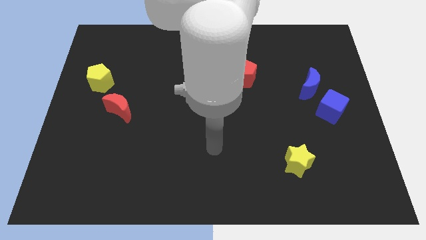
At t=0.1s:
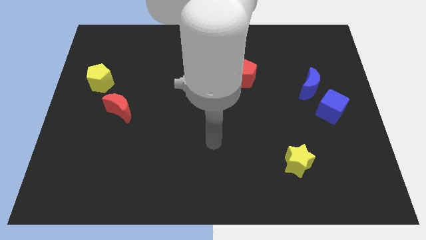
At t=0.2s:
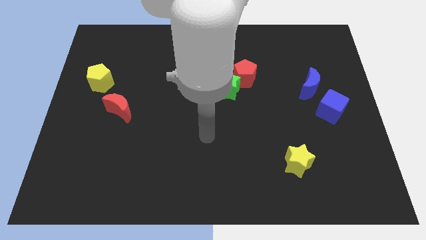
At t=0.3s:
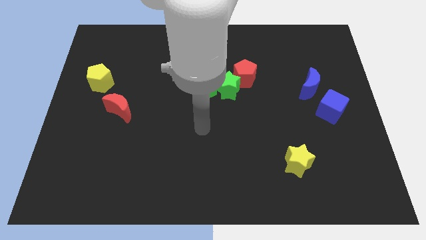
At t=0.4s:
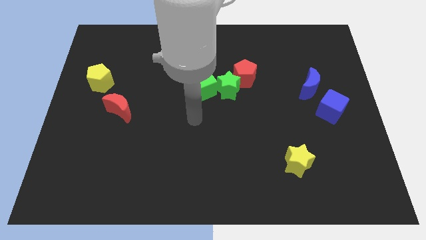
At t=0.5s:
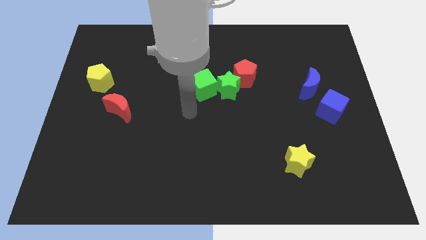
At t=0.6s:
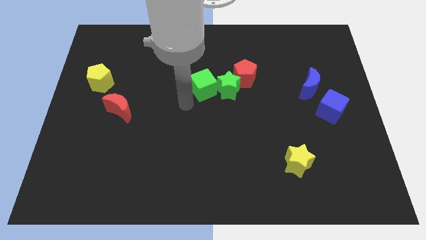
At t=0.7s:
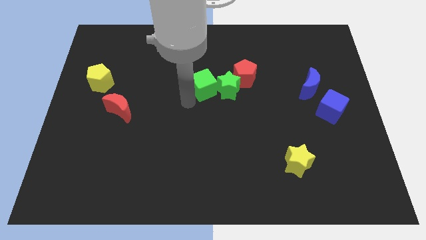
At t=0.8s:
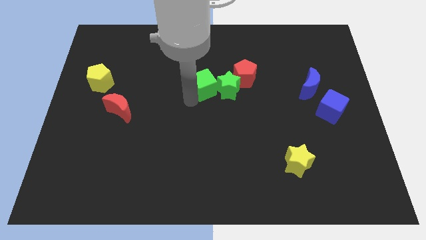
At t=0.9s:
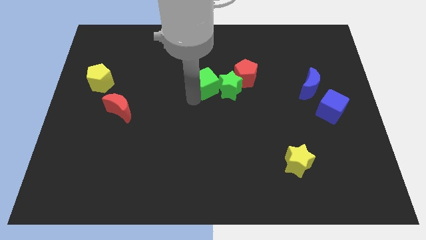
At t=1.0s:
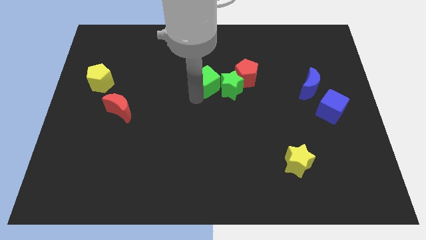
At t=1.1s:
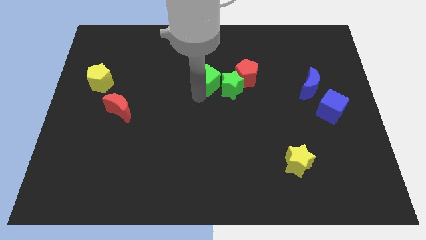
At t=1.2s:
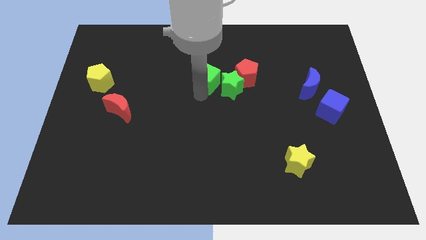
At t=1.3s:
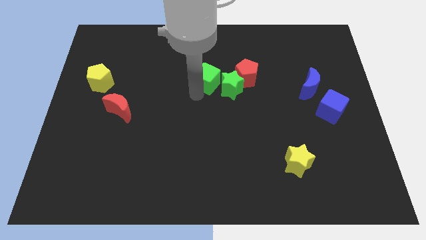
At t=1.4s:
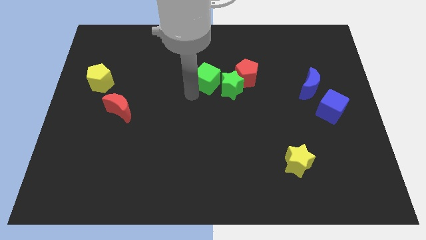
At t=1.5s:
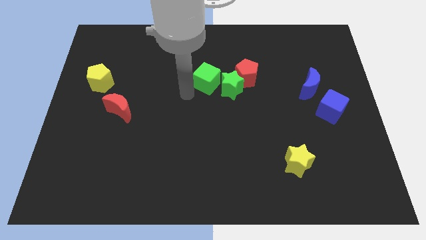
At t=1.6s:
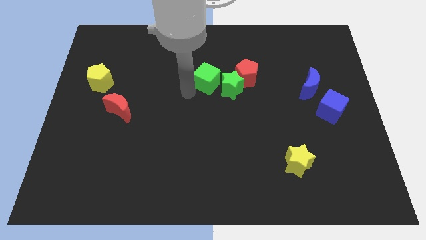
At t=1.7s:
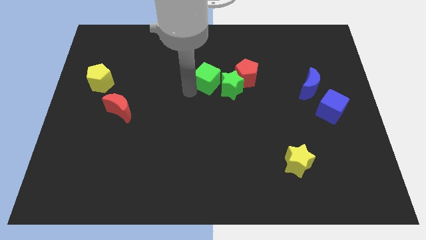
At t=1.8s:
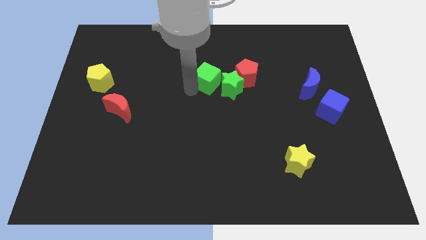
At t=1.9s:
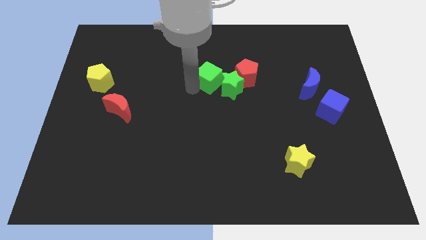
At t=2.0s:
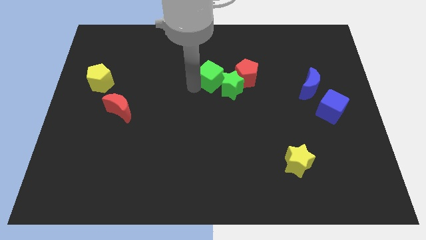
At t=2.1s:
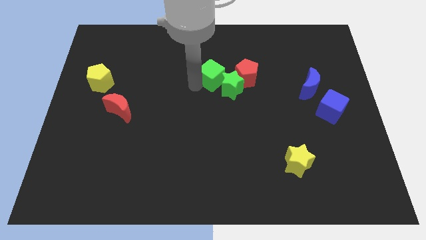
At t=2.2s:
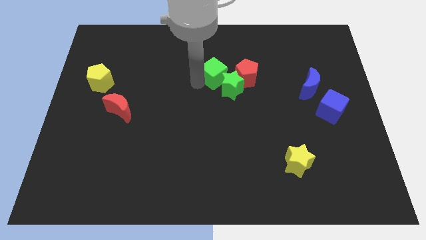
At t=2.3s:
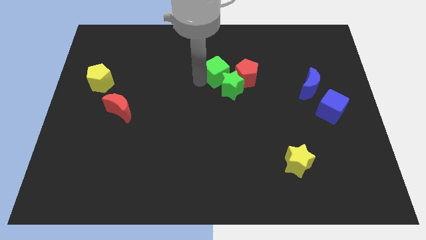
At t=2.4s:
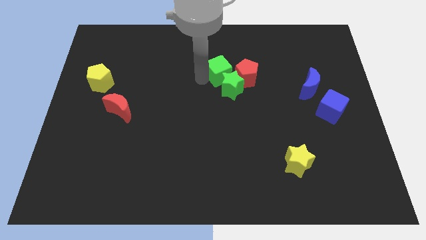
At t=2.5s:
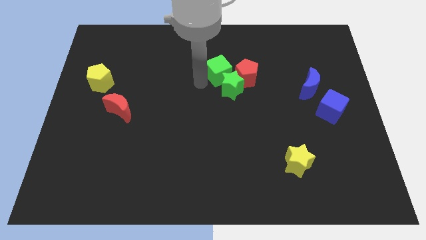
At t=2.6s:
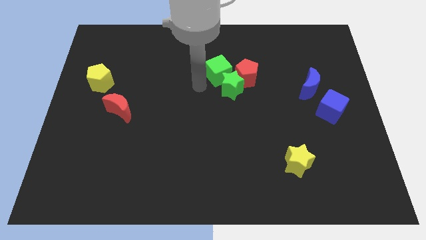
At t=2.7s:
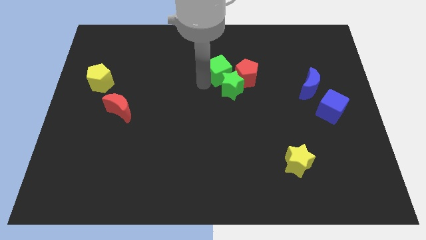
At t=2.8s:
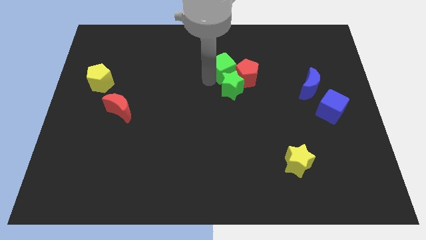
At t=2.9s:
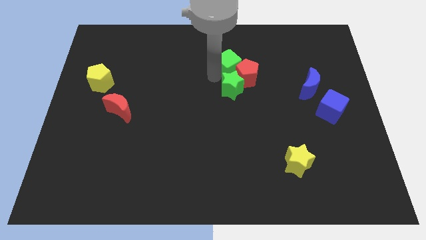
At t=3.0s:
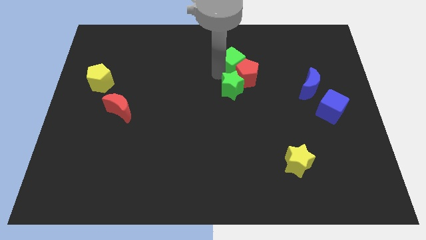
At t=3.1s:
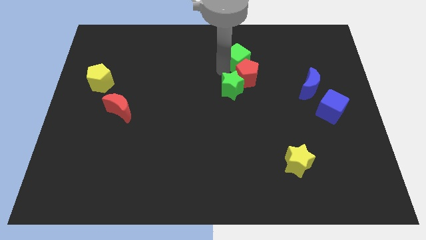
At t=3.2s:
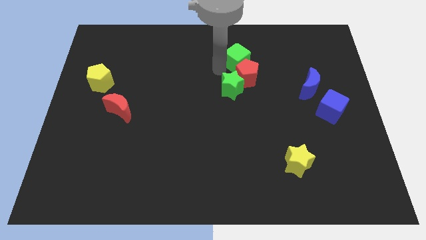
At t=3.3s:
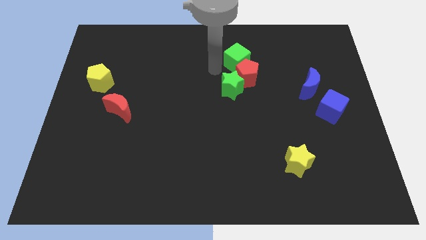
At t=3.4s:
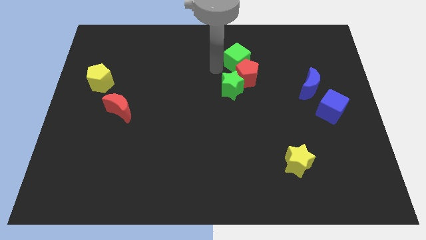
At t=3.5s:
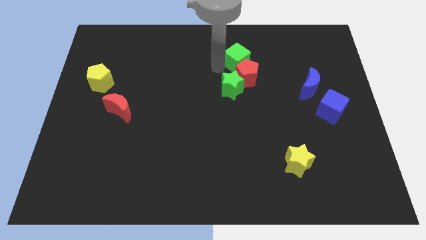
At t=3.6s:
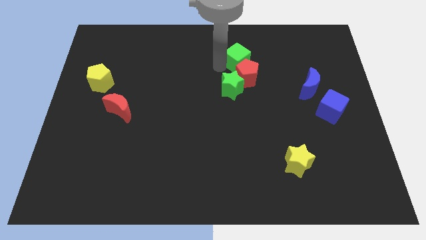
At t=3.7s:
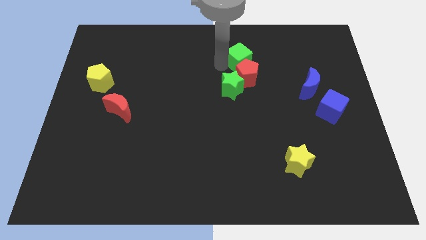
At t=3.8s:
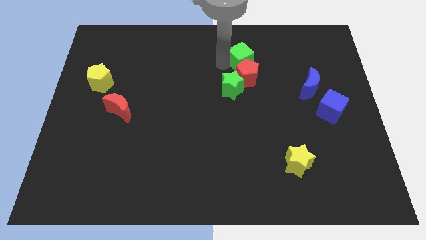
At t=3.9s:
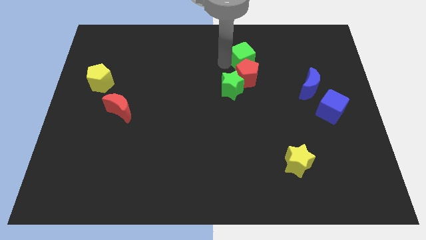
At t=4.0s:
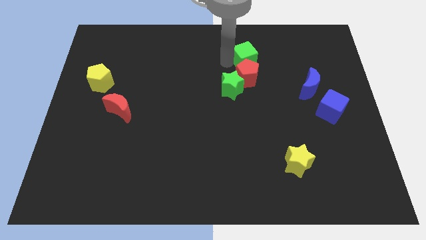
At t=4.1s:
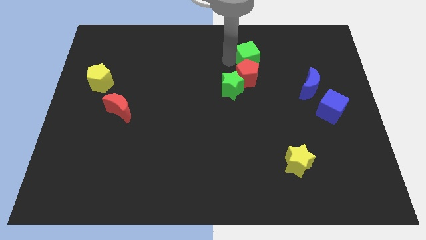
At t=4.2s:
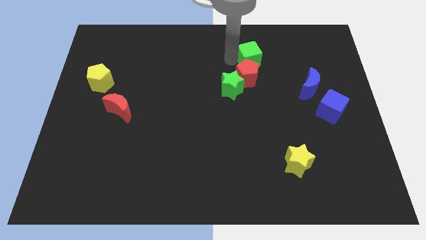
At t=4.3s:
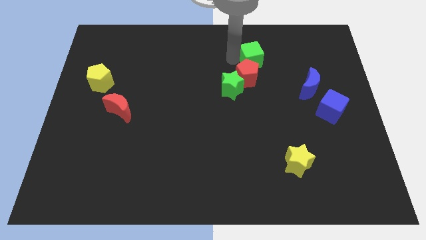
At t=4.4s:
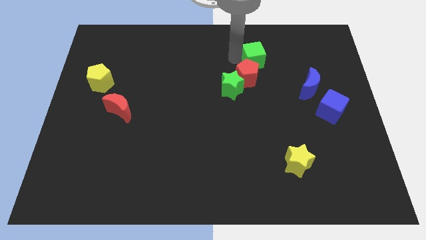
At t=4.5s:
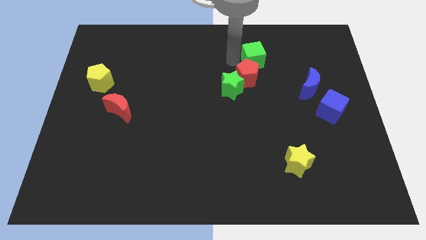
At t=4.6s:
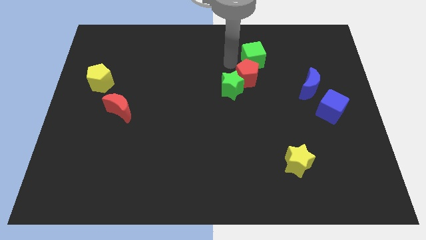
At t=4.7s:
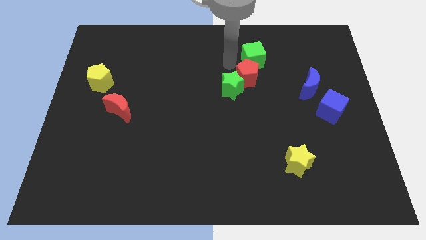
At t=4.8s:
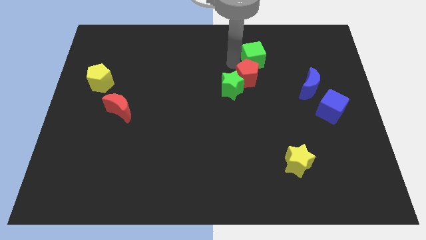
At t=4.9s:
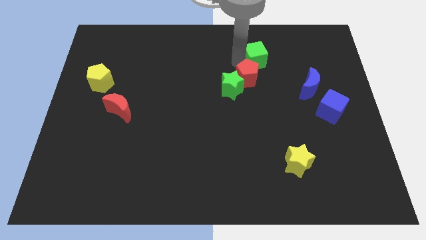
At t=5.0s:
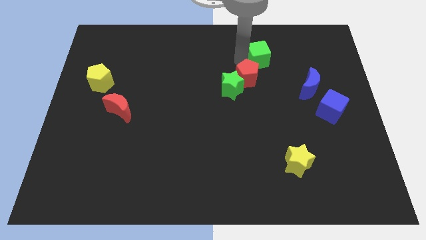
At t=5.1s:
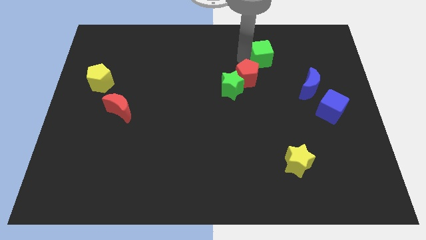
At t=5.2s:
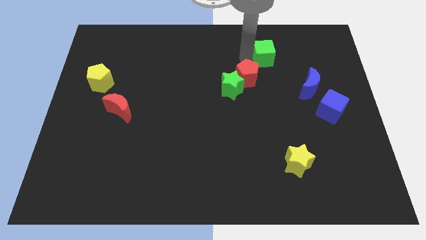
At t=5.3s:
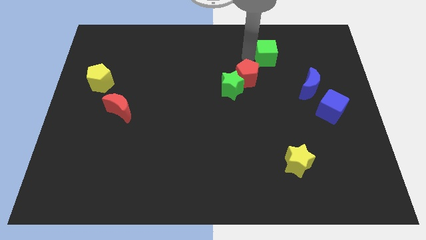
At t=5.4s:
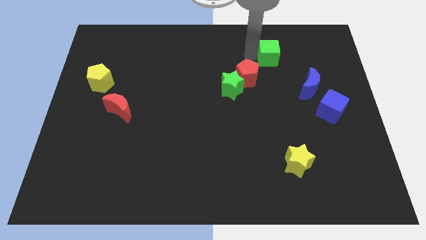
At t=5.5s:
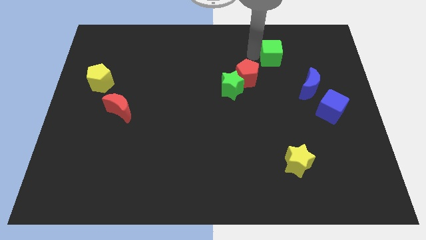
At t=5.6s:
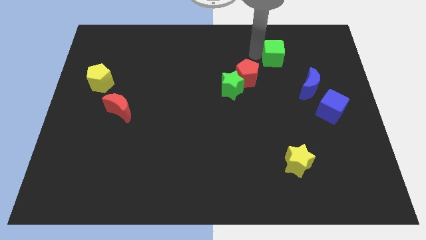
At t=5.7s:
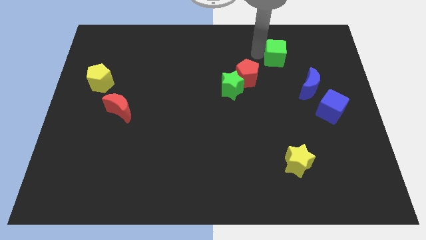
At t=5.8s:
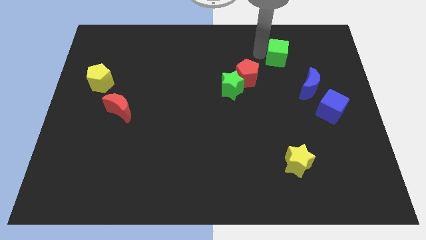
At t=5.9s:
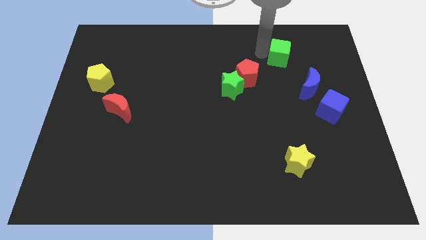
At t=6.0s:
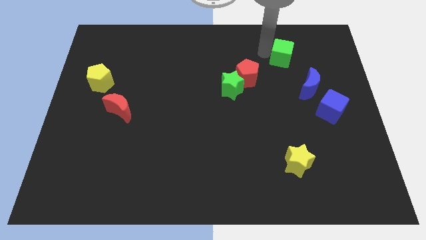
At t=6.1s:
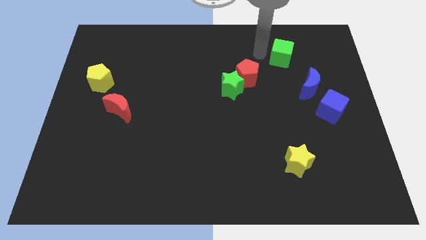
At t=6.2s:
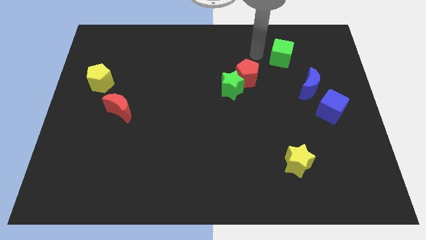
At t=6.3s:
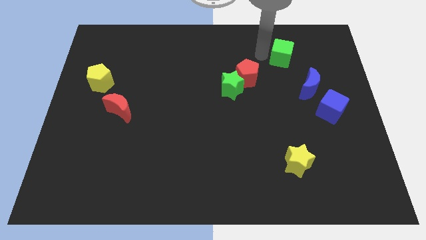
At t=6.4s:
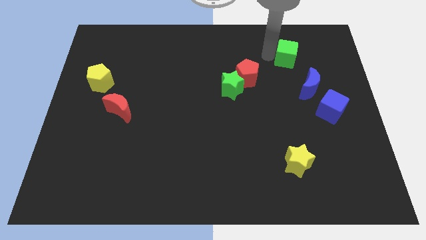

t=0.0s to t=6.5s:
put the green cube to the top side of the blue moon

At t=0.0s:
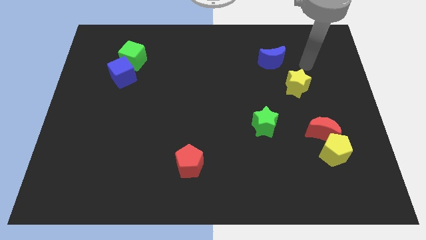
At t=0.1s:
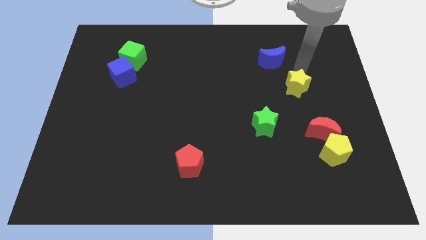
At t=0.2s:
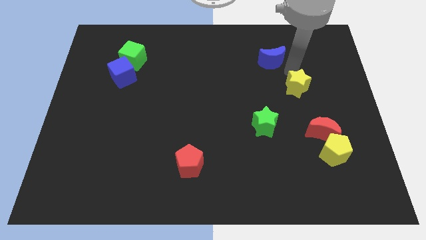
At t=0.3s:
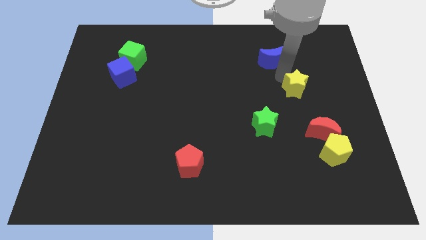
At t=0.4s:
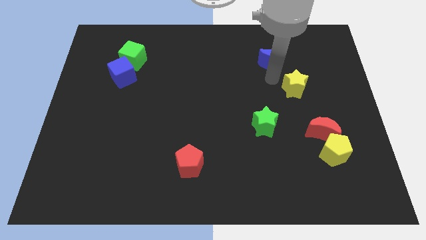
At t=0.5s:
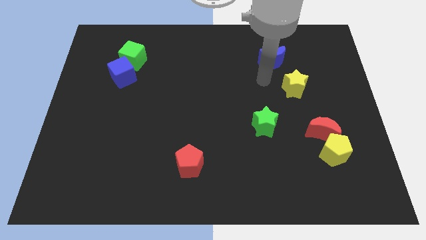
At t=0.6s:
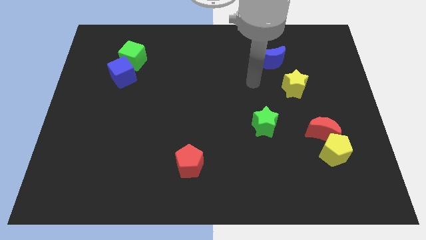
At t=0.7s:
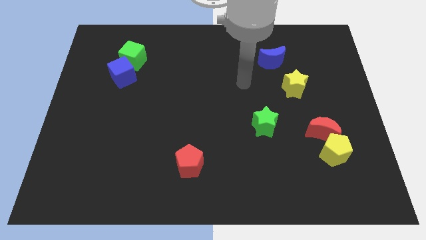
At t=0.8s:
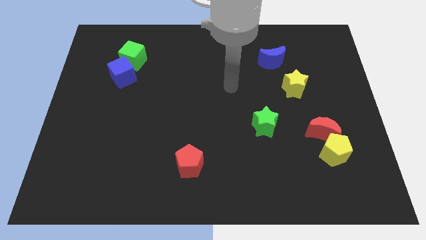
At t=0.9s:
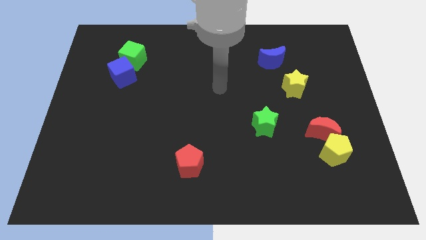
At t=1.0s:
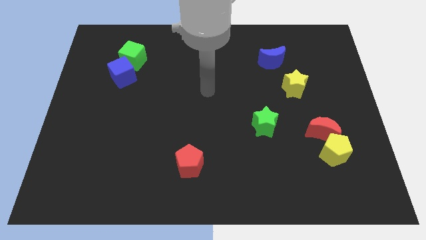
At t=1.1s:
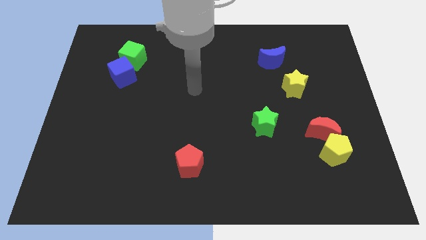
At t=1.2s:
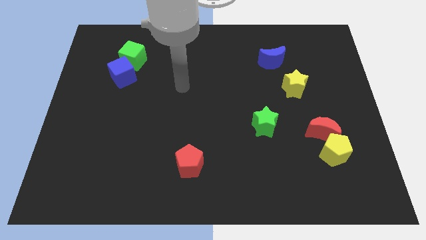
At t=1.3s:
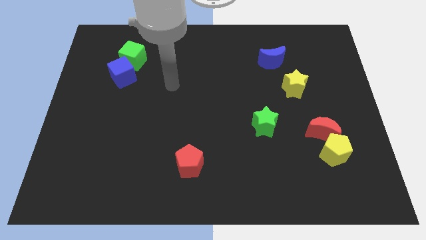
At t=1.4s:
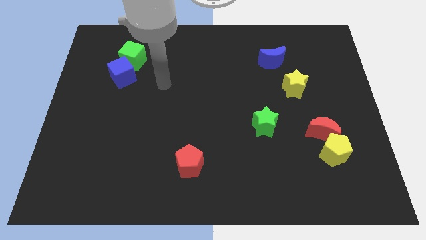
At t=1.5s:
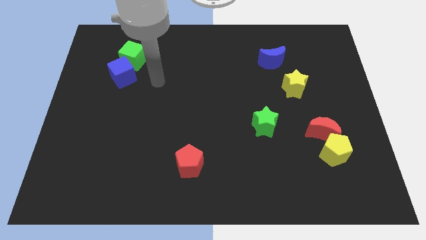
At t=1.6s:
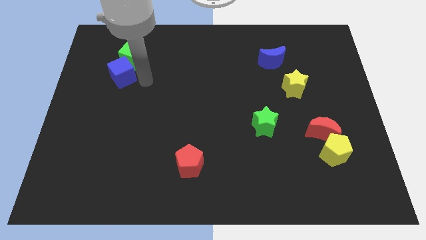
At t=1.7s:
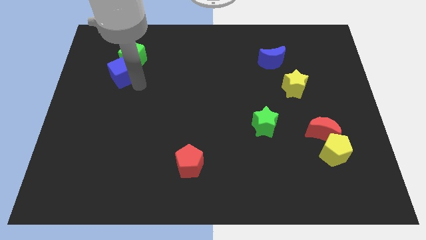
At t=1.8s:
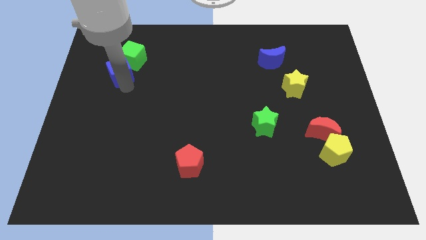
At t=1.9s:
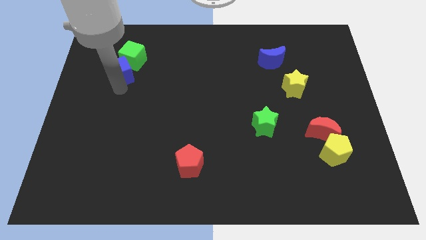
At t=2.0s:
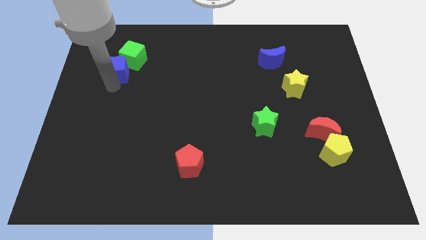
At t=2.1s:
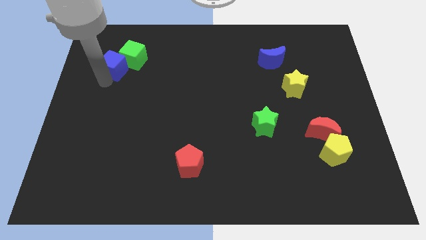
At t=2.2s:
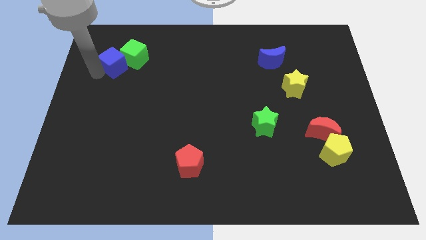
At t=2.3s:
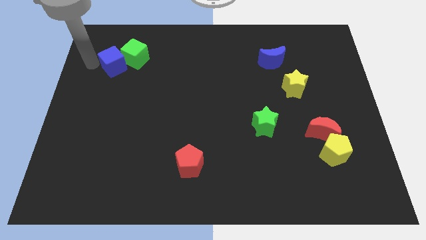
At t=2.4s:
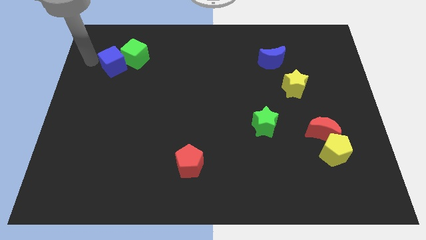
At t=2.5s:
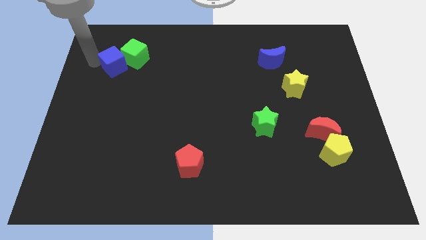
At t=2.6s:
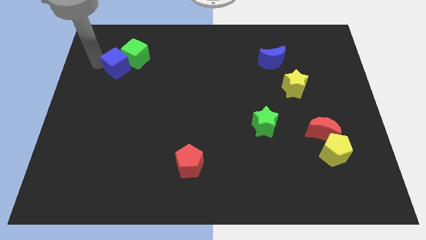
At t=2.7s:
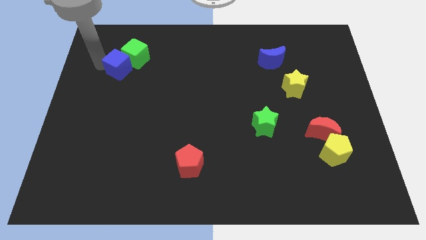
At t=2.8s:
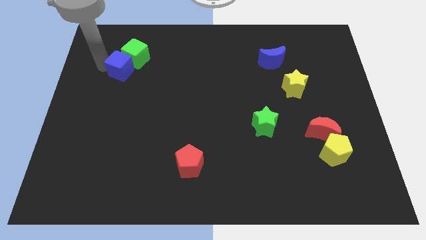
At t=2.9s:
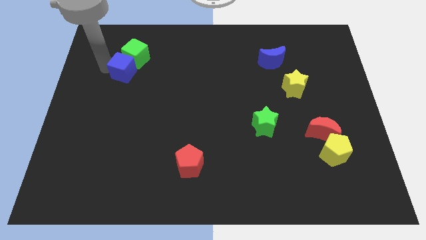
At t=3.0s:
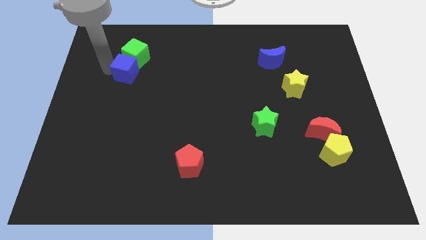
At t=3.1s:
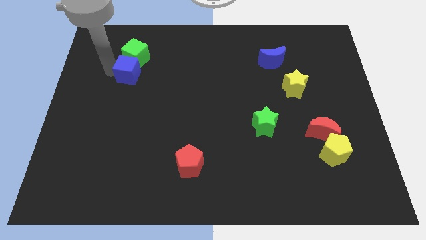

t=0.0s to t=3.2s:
push the blue cube to the bottom right side of the green cube
